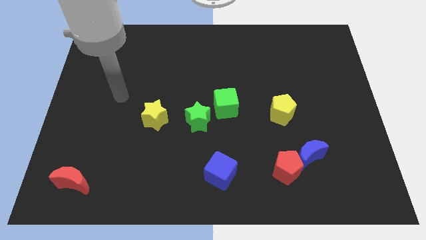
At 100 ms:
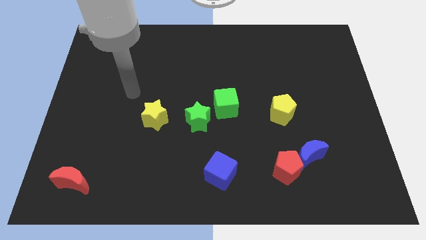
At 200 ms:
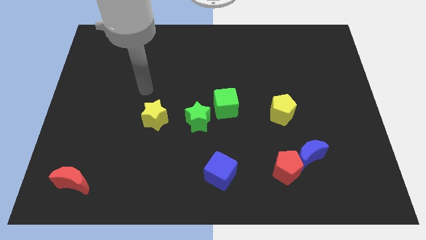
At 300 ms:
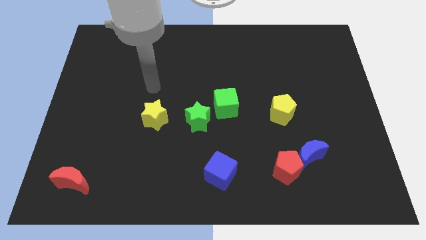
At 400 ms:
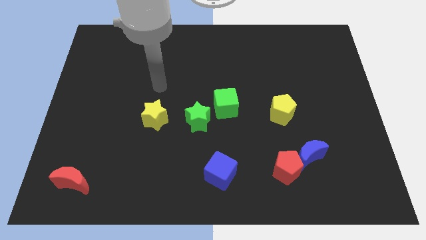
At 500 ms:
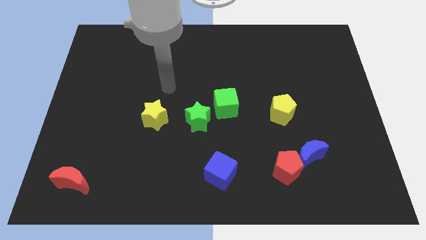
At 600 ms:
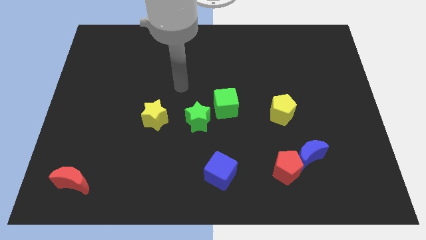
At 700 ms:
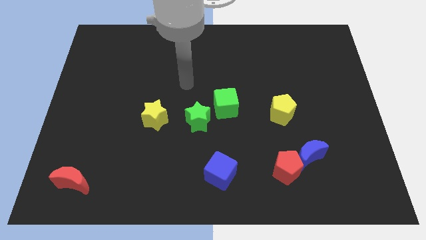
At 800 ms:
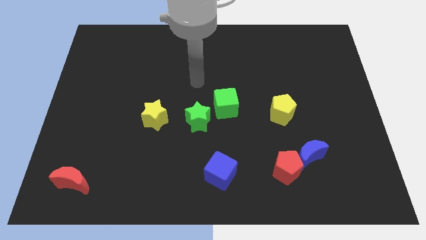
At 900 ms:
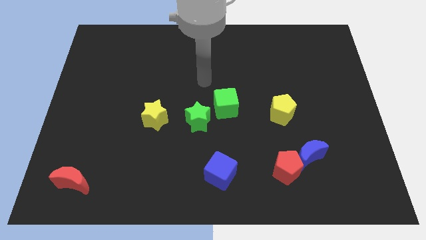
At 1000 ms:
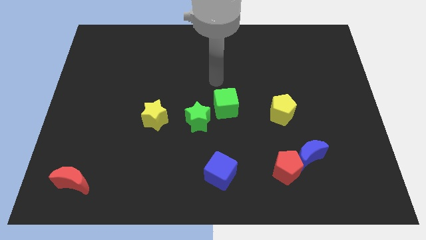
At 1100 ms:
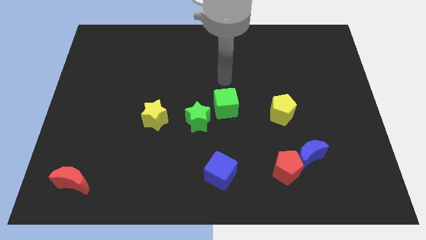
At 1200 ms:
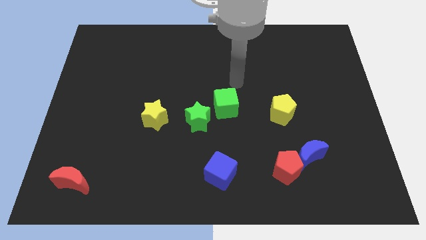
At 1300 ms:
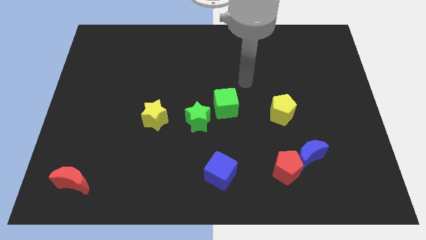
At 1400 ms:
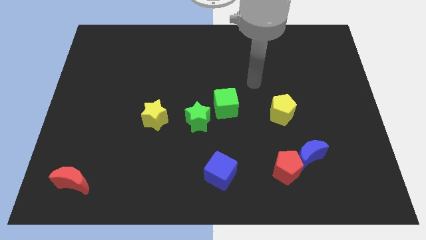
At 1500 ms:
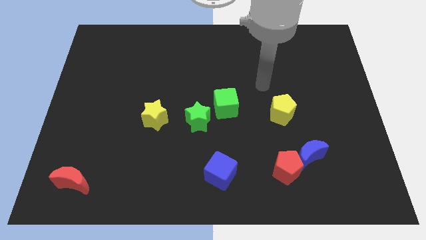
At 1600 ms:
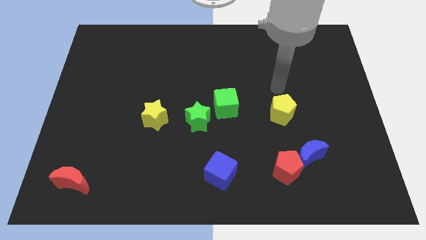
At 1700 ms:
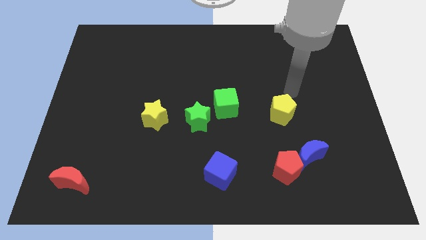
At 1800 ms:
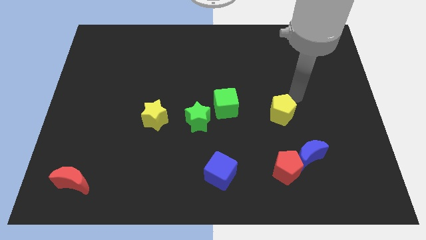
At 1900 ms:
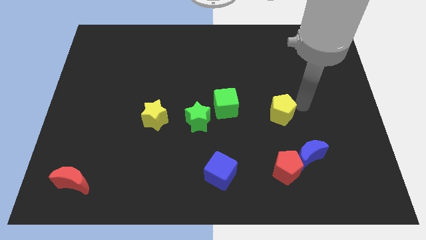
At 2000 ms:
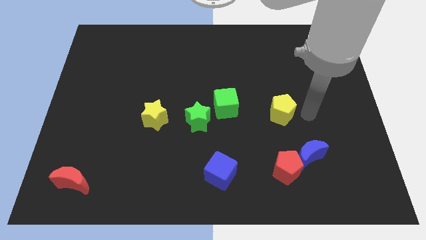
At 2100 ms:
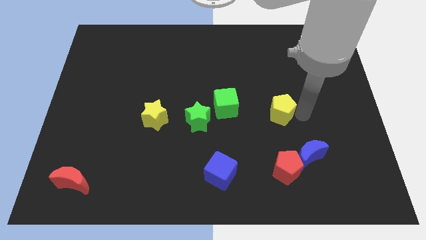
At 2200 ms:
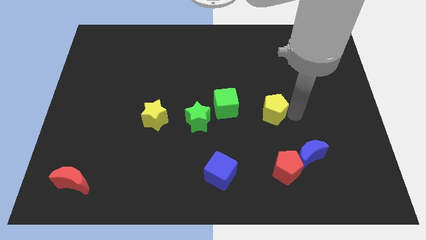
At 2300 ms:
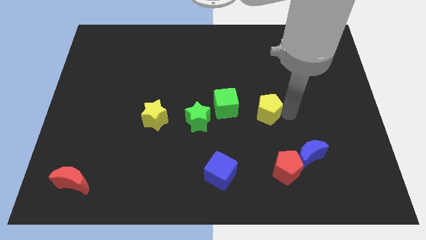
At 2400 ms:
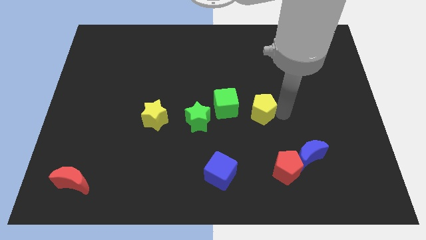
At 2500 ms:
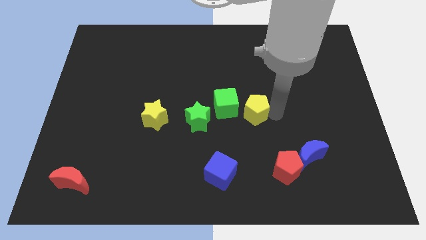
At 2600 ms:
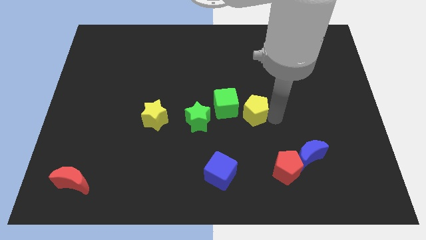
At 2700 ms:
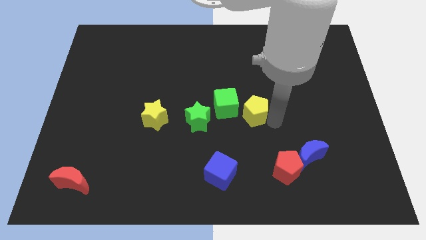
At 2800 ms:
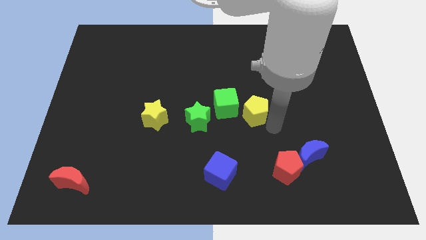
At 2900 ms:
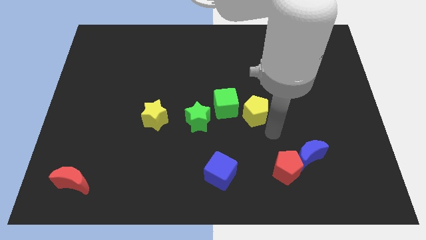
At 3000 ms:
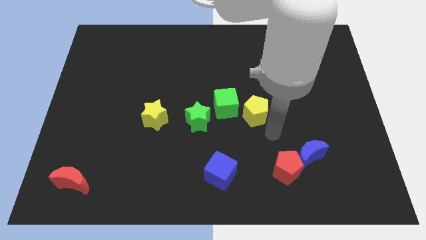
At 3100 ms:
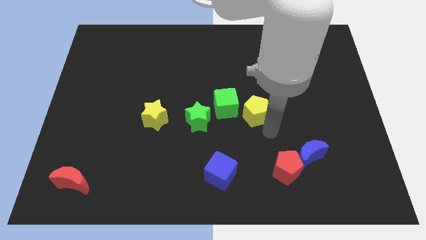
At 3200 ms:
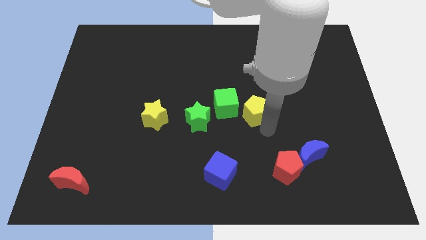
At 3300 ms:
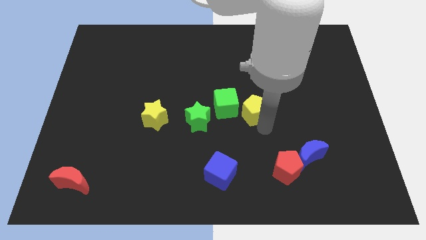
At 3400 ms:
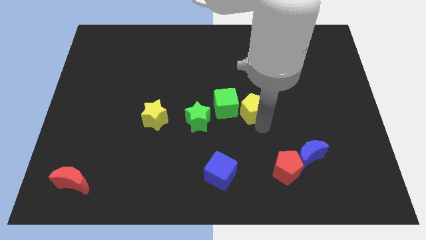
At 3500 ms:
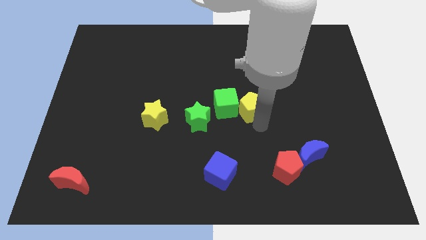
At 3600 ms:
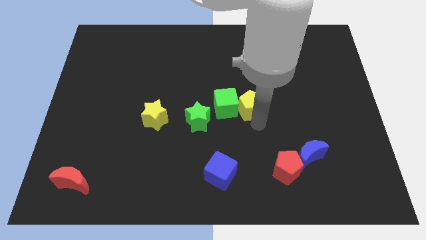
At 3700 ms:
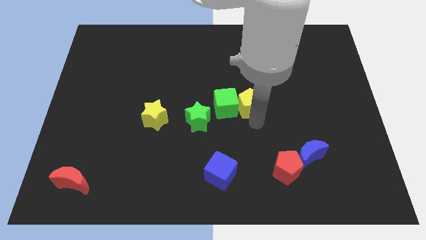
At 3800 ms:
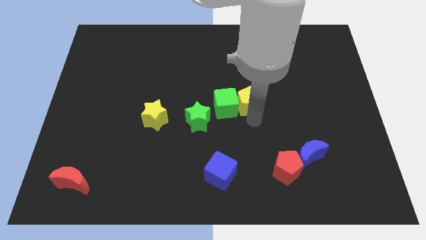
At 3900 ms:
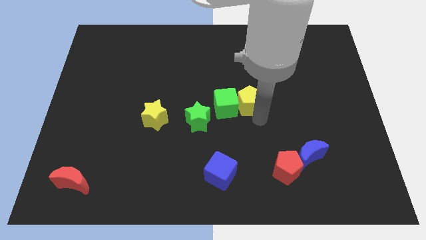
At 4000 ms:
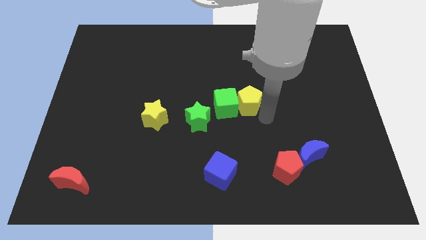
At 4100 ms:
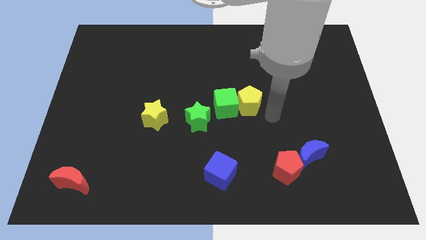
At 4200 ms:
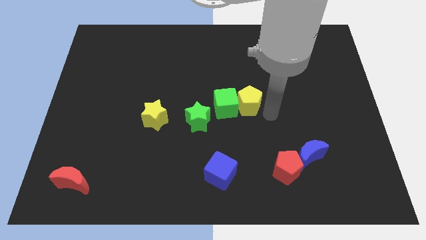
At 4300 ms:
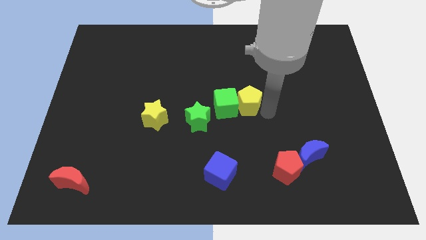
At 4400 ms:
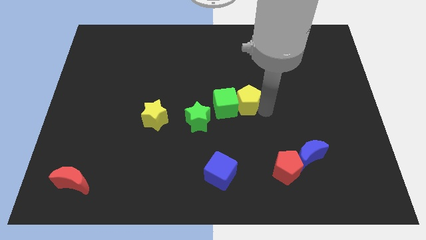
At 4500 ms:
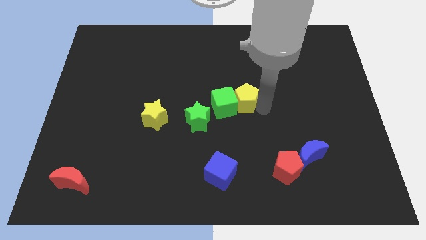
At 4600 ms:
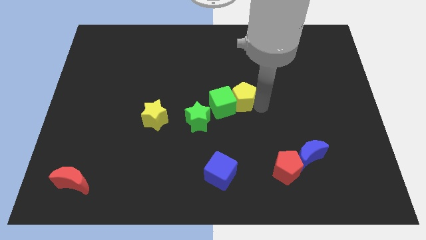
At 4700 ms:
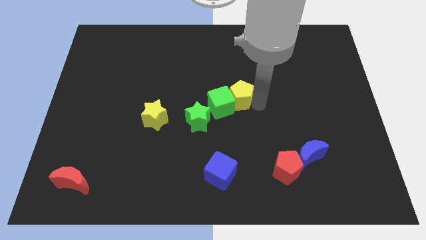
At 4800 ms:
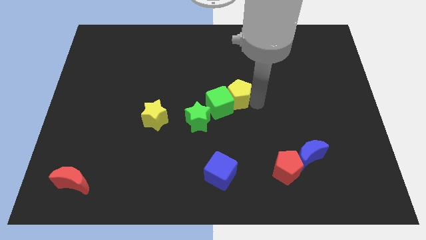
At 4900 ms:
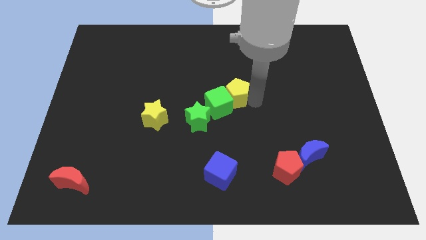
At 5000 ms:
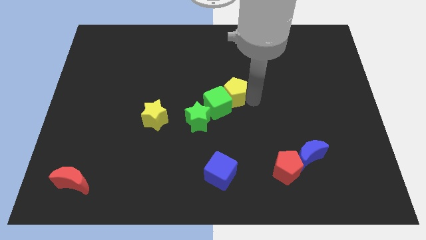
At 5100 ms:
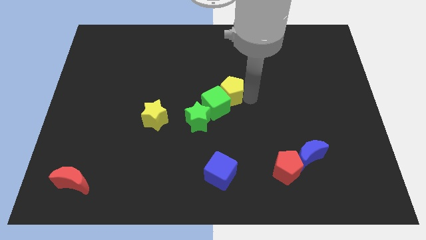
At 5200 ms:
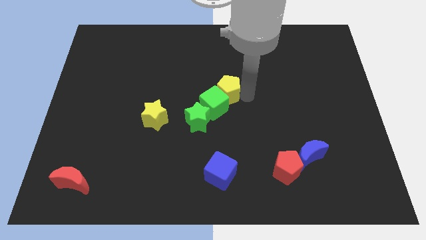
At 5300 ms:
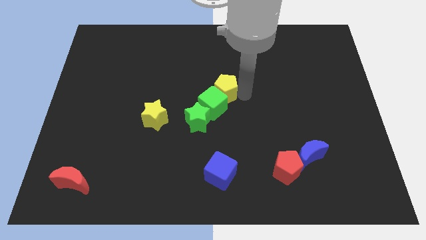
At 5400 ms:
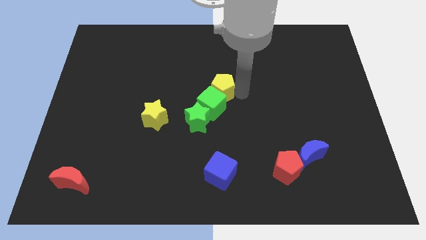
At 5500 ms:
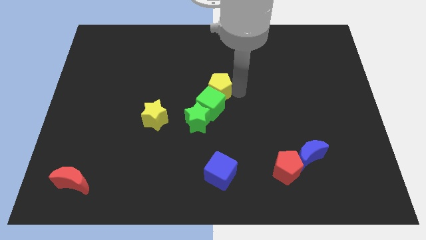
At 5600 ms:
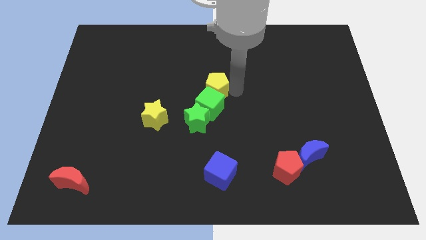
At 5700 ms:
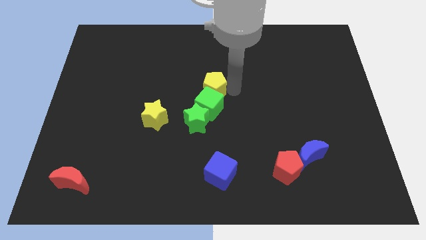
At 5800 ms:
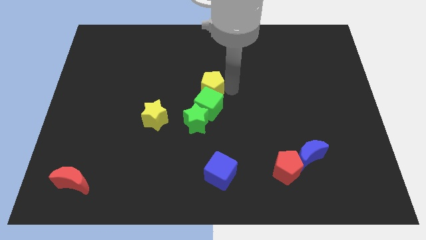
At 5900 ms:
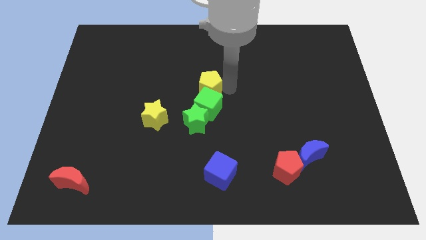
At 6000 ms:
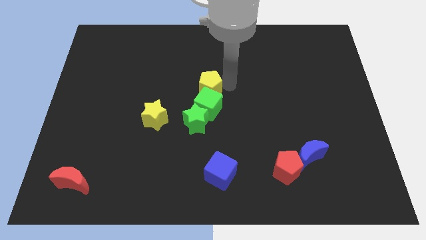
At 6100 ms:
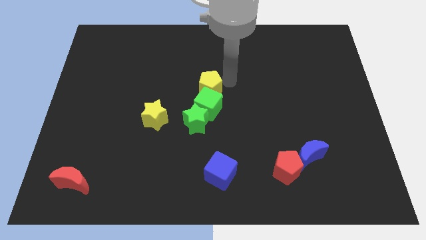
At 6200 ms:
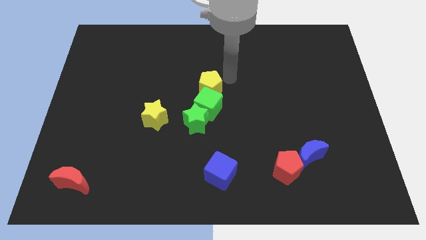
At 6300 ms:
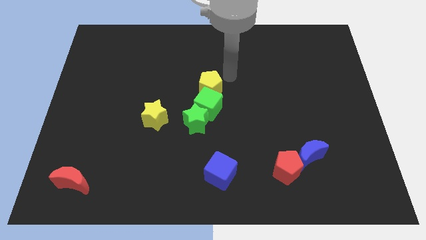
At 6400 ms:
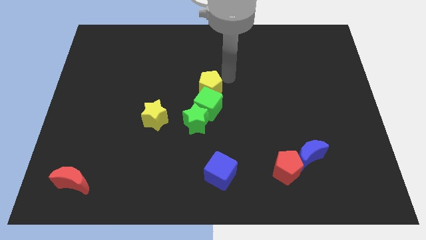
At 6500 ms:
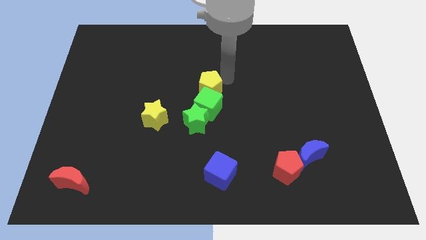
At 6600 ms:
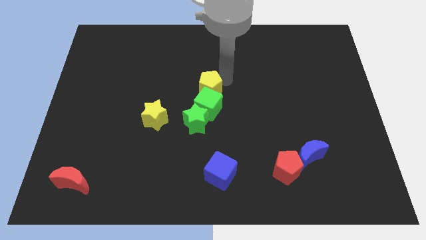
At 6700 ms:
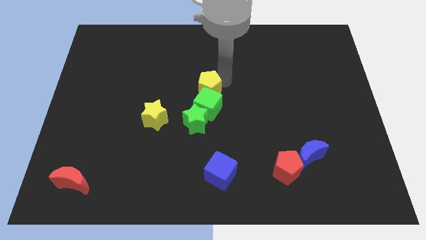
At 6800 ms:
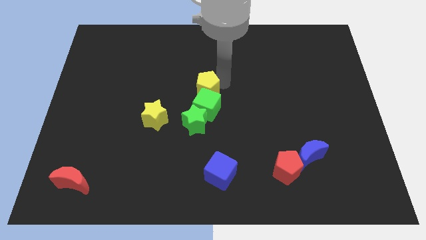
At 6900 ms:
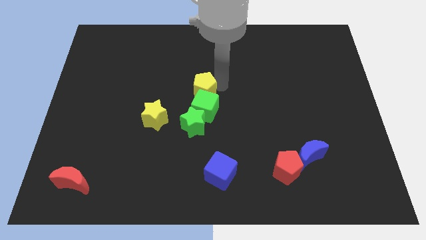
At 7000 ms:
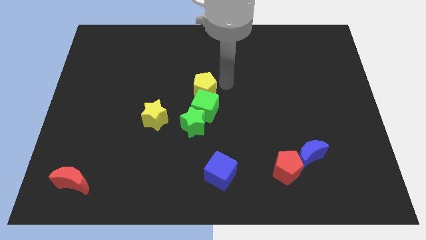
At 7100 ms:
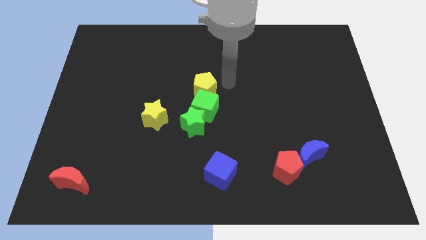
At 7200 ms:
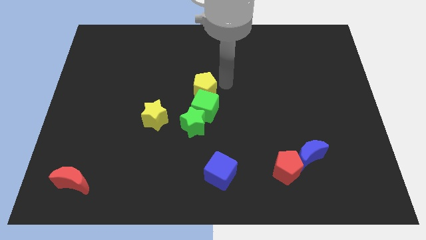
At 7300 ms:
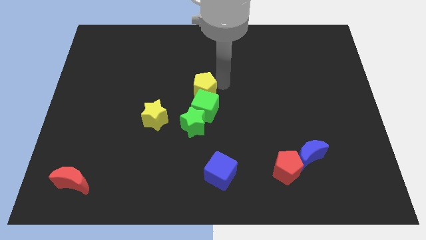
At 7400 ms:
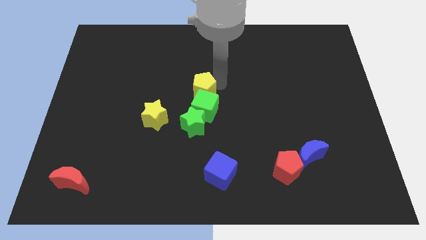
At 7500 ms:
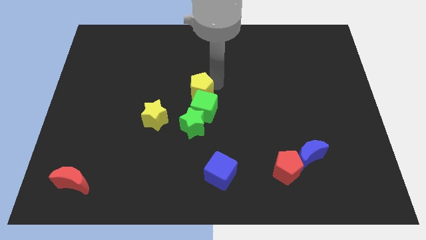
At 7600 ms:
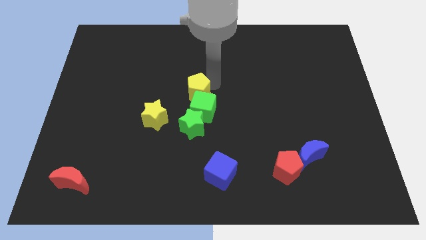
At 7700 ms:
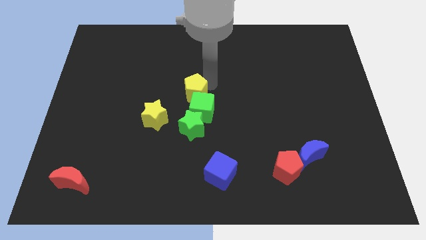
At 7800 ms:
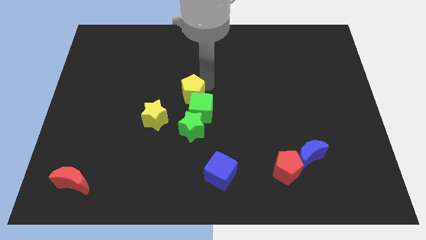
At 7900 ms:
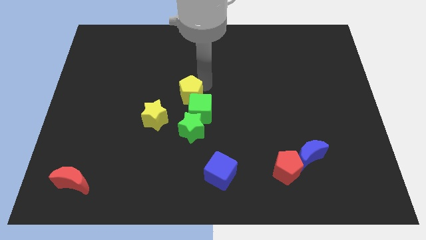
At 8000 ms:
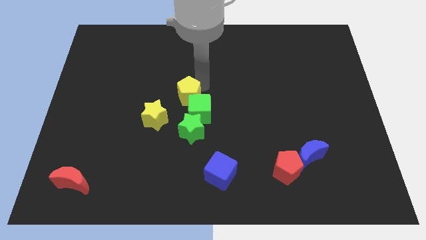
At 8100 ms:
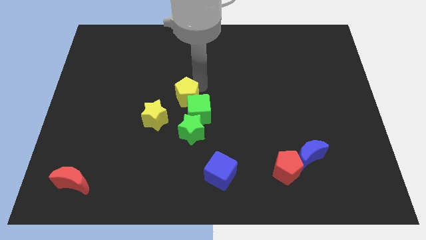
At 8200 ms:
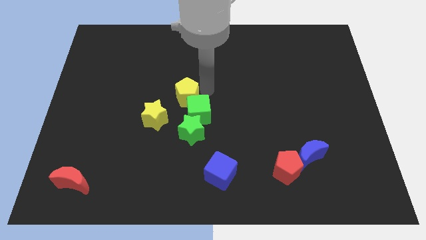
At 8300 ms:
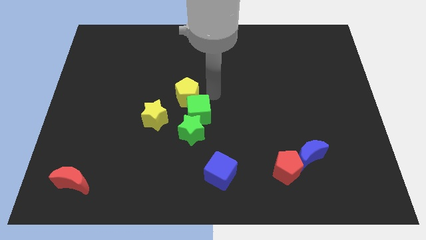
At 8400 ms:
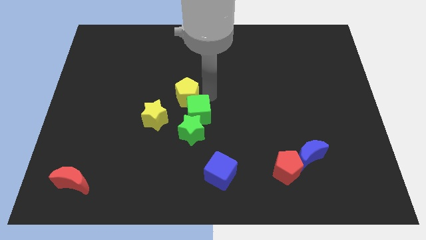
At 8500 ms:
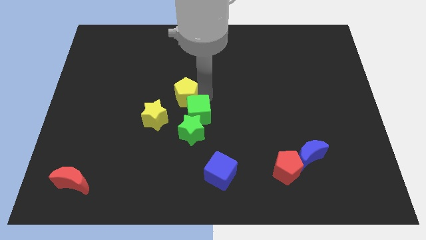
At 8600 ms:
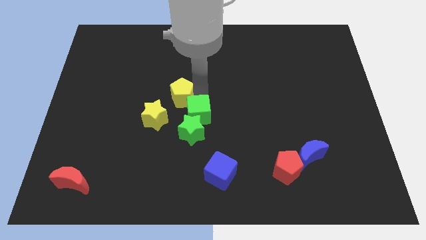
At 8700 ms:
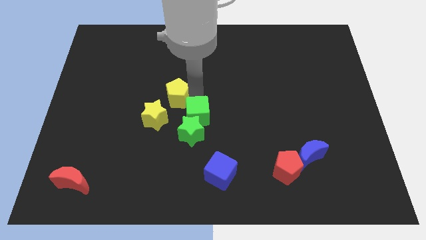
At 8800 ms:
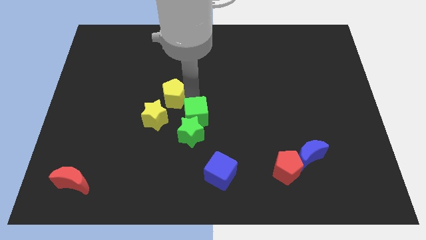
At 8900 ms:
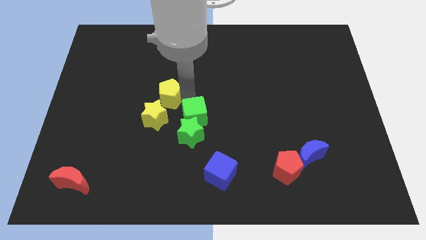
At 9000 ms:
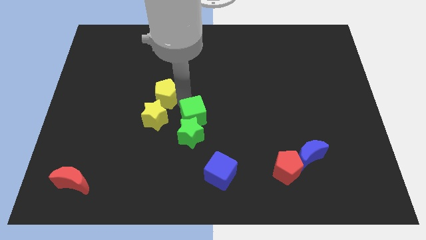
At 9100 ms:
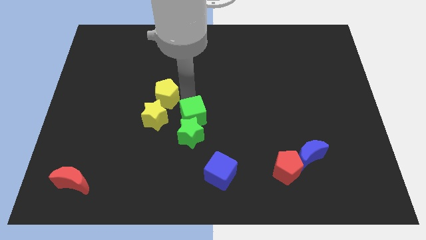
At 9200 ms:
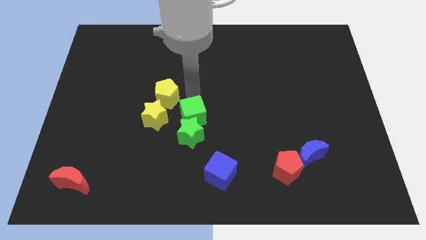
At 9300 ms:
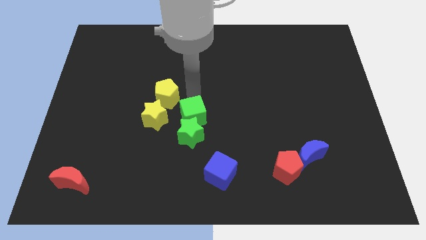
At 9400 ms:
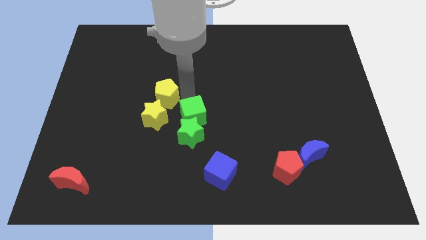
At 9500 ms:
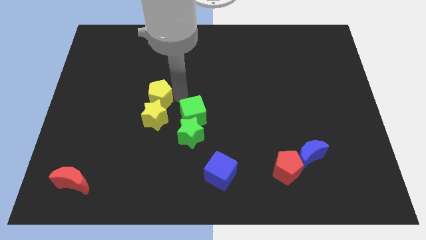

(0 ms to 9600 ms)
push the yellow pentagon to the top left side of the yellow star
